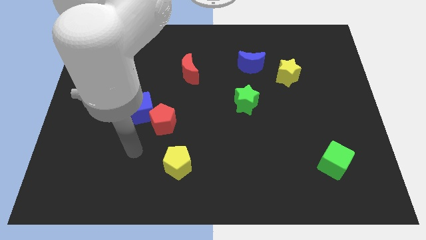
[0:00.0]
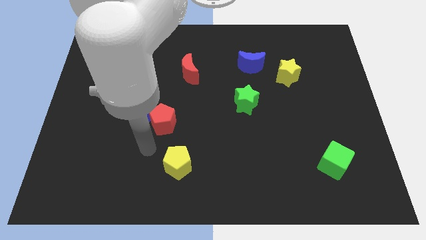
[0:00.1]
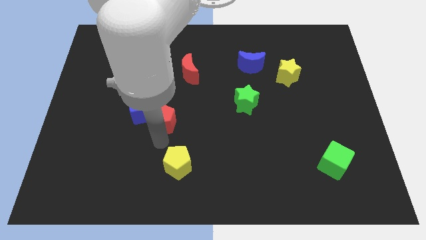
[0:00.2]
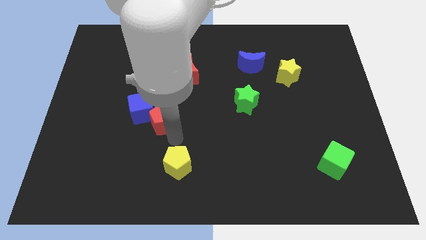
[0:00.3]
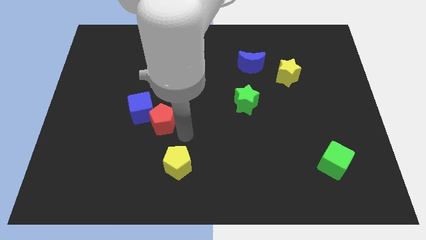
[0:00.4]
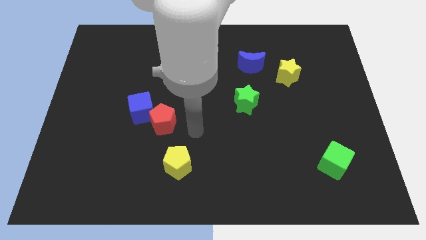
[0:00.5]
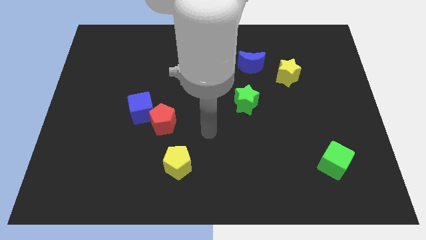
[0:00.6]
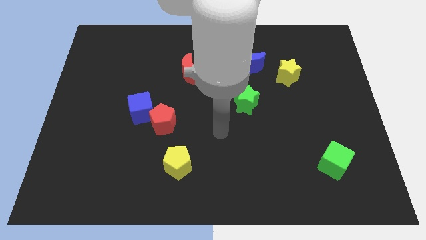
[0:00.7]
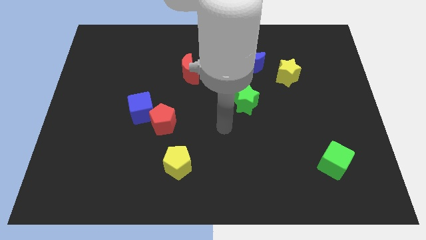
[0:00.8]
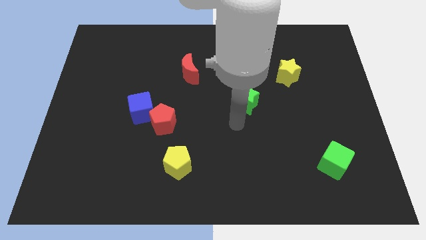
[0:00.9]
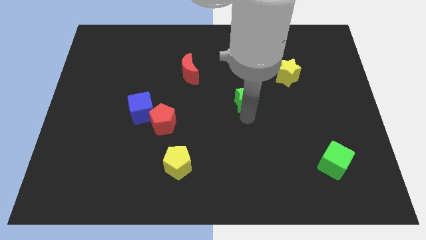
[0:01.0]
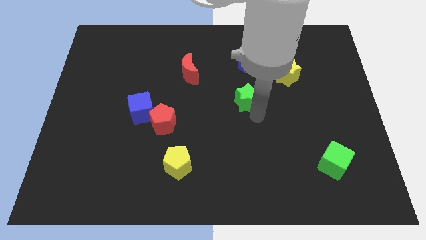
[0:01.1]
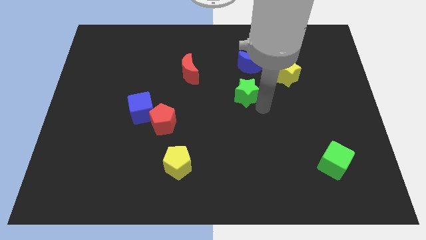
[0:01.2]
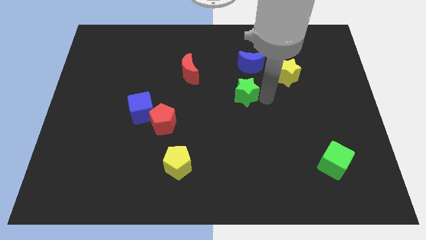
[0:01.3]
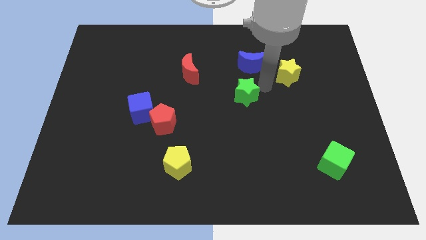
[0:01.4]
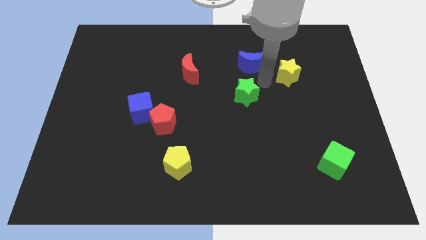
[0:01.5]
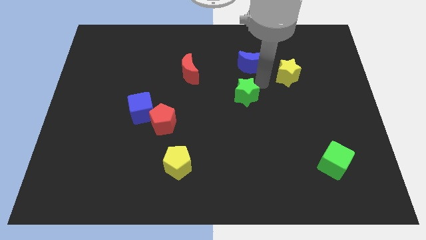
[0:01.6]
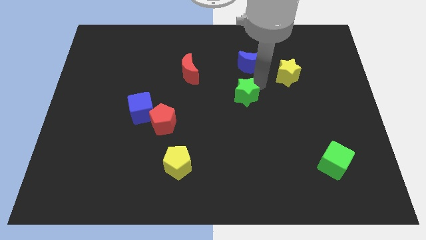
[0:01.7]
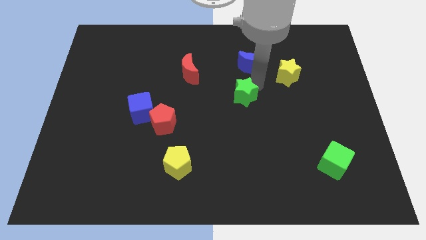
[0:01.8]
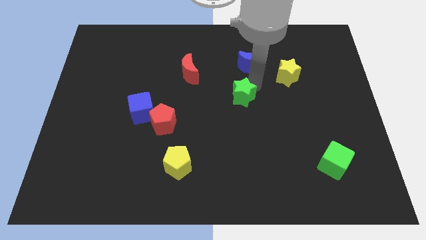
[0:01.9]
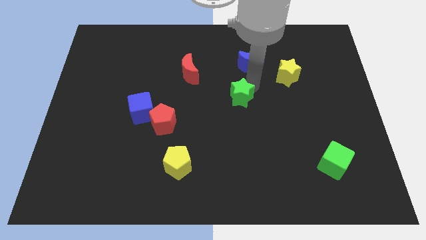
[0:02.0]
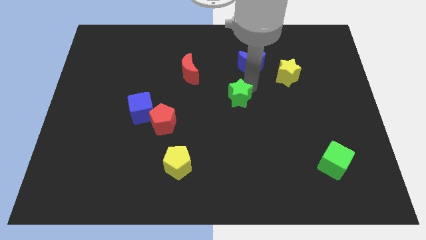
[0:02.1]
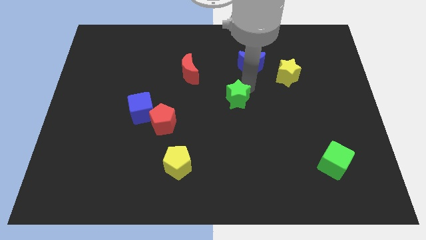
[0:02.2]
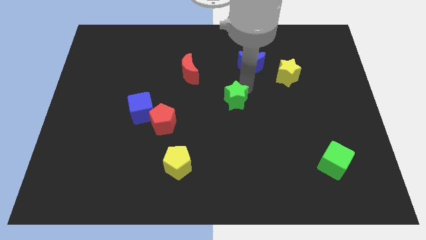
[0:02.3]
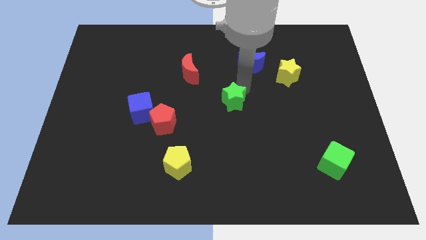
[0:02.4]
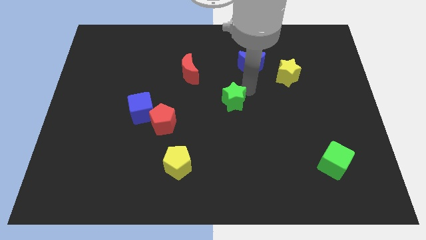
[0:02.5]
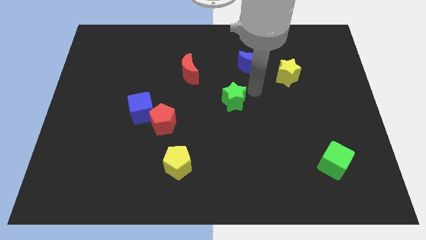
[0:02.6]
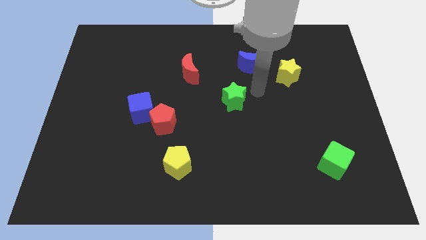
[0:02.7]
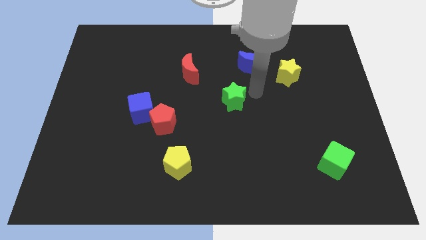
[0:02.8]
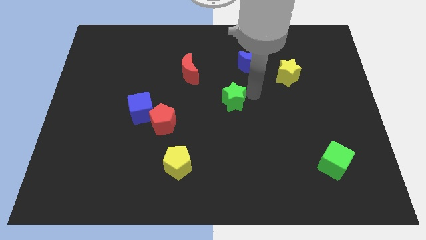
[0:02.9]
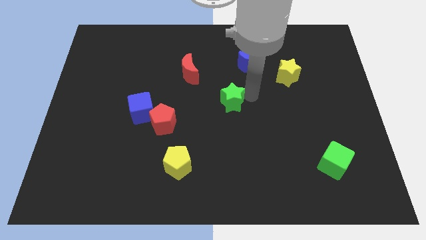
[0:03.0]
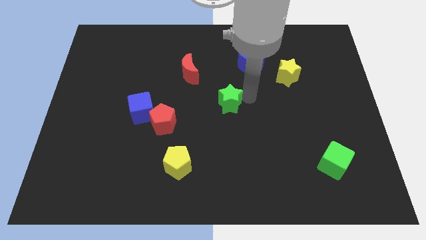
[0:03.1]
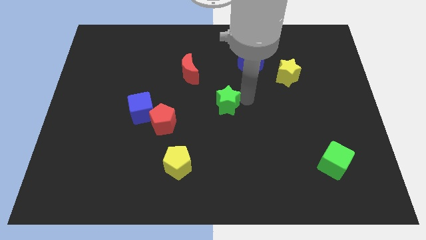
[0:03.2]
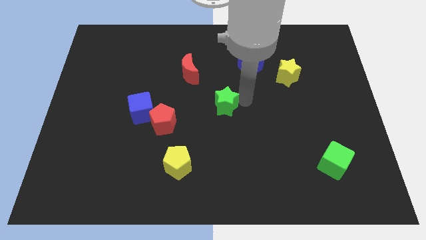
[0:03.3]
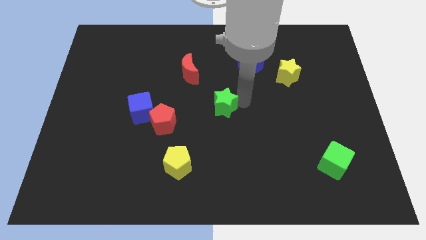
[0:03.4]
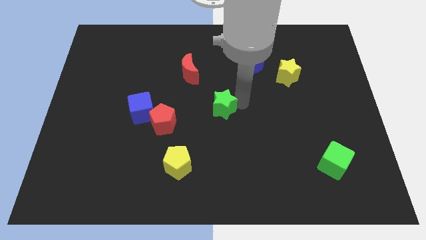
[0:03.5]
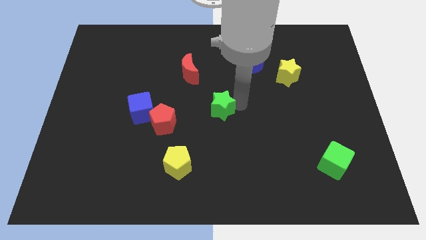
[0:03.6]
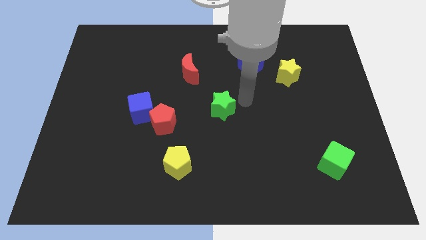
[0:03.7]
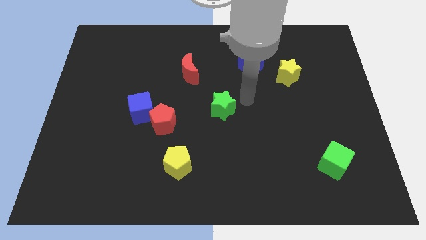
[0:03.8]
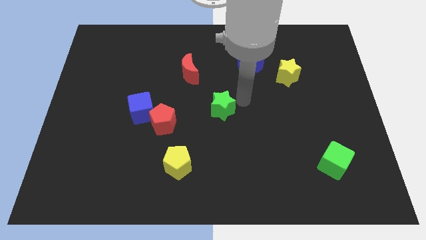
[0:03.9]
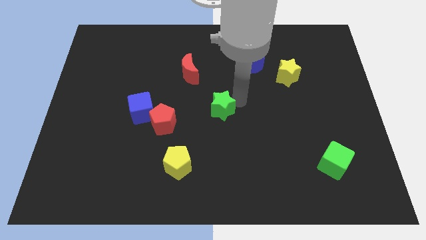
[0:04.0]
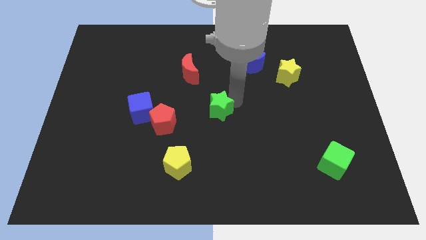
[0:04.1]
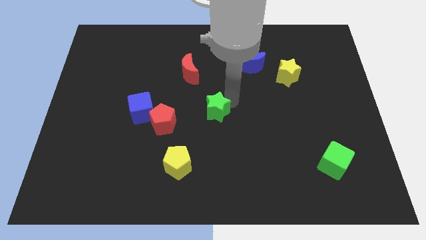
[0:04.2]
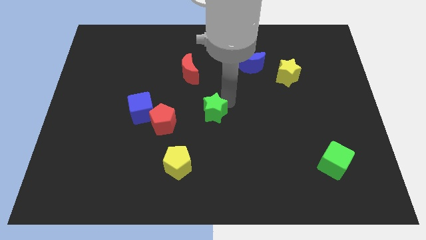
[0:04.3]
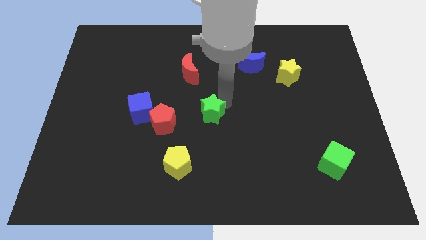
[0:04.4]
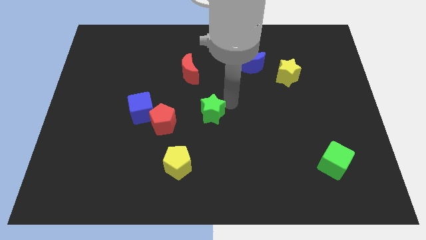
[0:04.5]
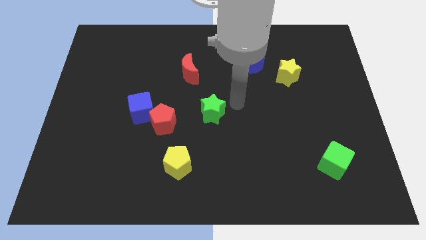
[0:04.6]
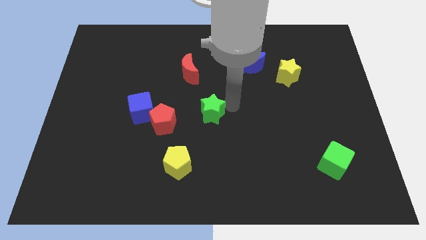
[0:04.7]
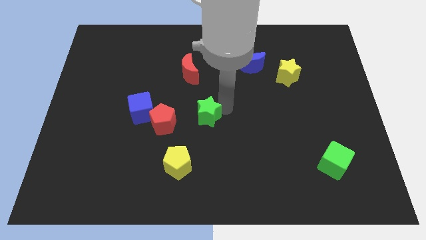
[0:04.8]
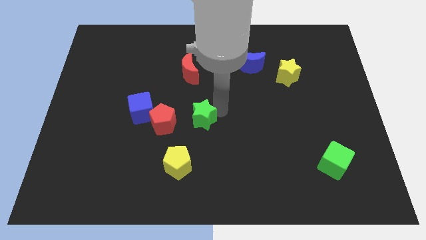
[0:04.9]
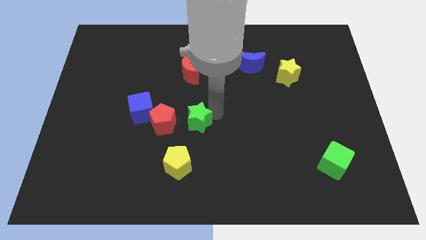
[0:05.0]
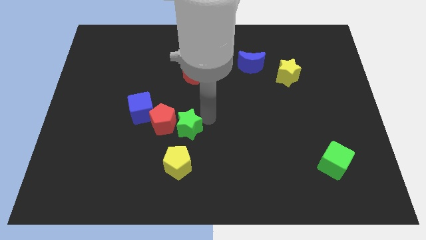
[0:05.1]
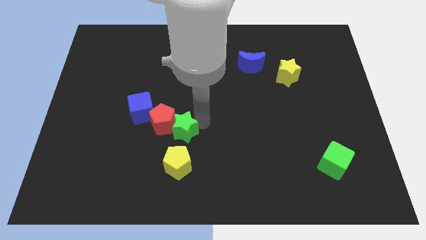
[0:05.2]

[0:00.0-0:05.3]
move the green star to the bottom right side of the blue cube

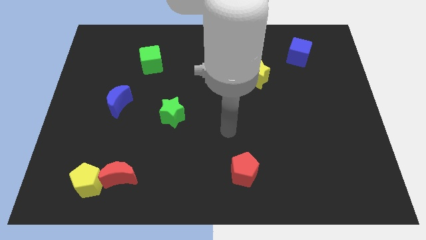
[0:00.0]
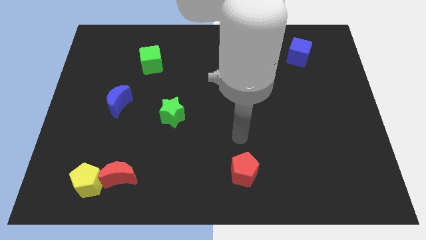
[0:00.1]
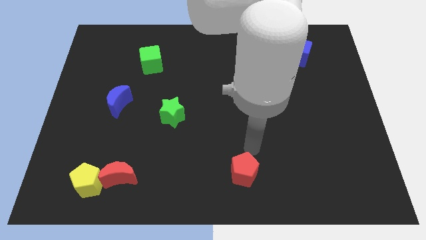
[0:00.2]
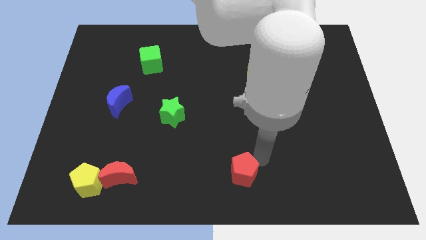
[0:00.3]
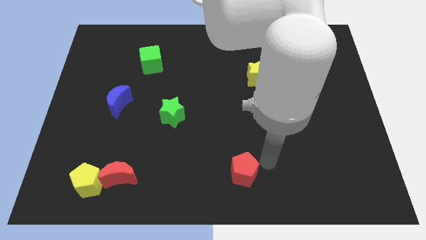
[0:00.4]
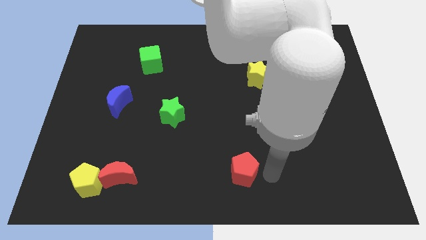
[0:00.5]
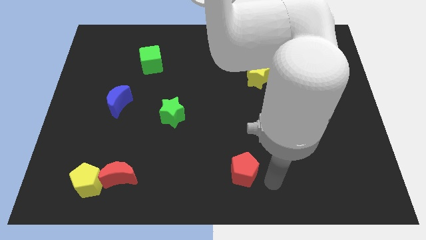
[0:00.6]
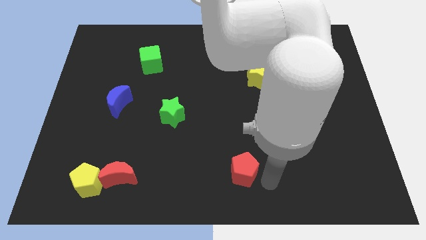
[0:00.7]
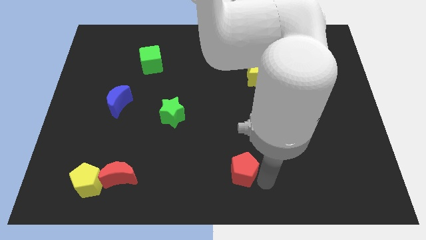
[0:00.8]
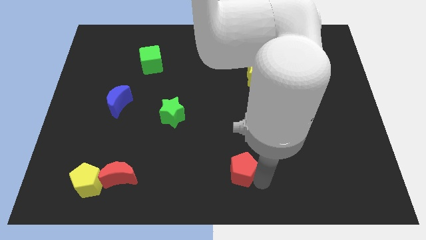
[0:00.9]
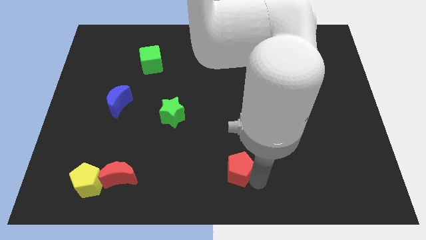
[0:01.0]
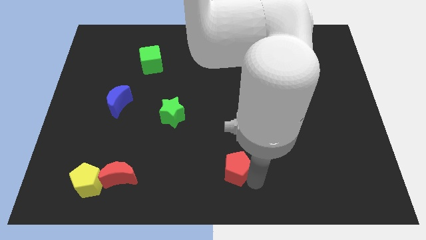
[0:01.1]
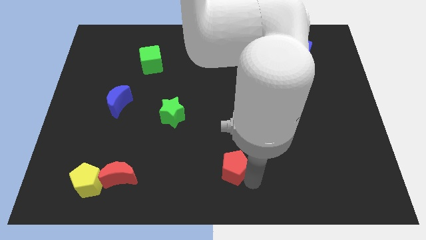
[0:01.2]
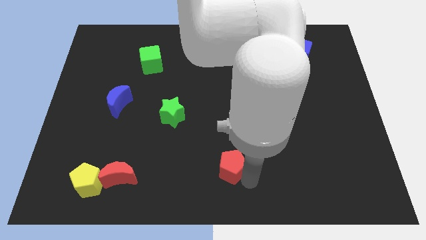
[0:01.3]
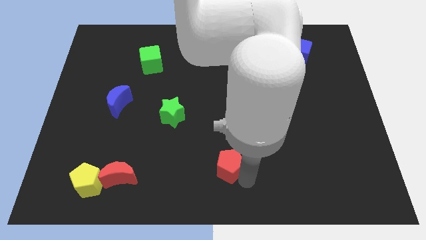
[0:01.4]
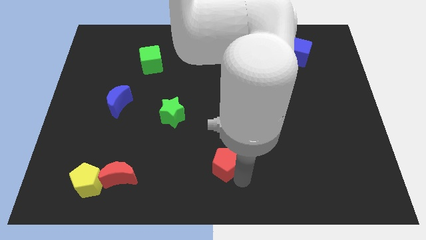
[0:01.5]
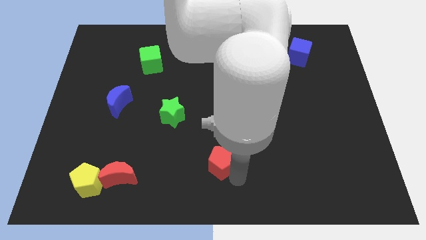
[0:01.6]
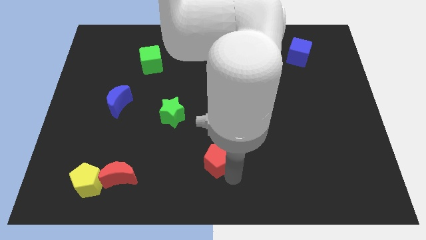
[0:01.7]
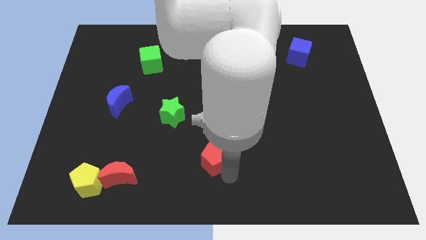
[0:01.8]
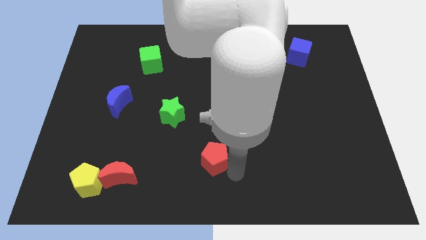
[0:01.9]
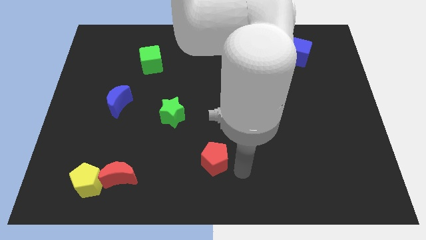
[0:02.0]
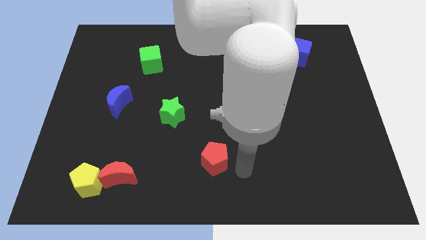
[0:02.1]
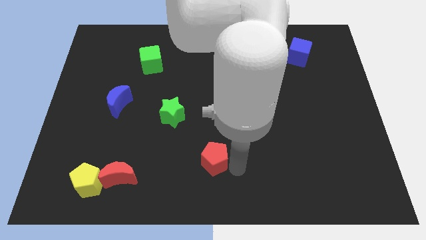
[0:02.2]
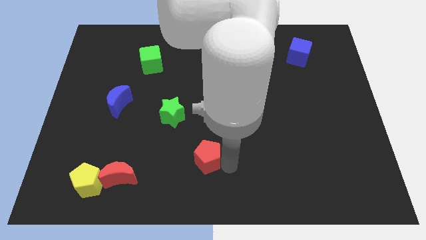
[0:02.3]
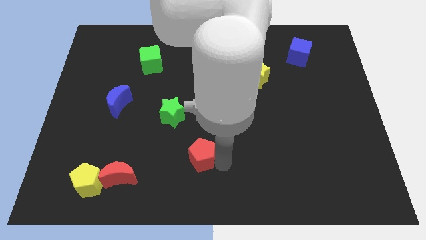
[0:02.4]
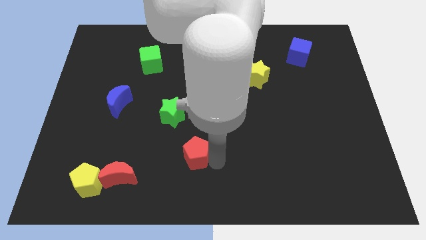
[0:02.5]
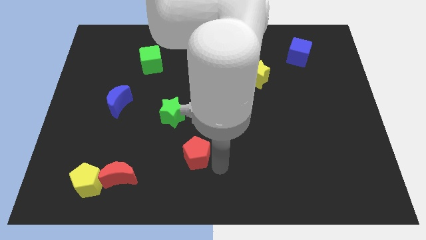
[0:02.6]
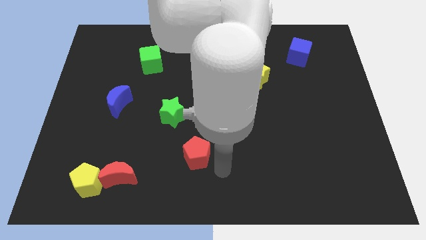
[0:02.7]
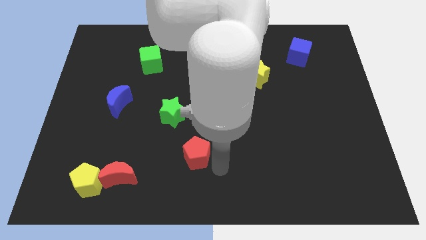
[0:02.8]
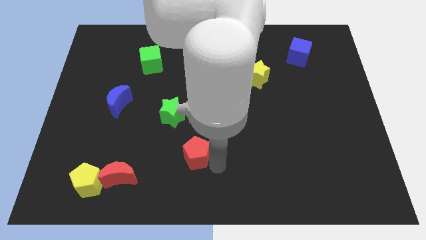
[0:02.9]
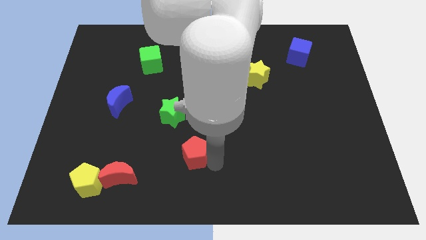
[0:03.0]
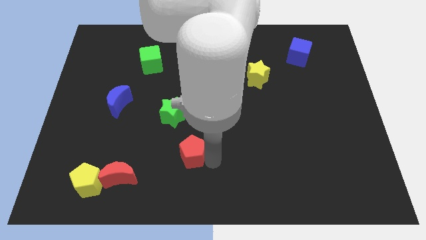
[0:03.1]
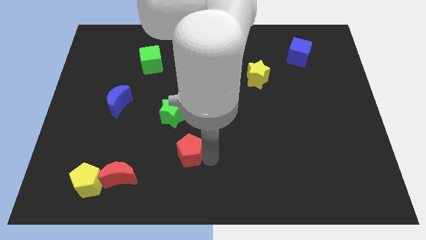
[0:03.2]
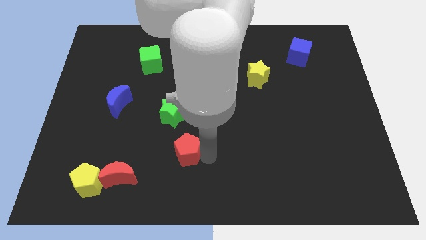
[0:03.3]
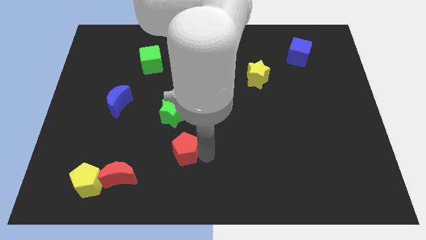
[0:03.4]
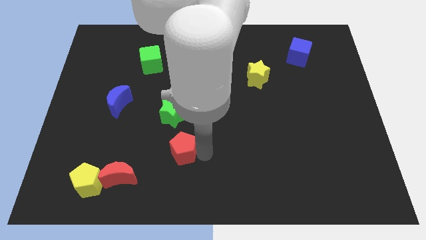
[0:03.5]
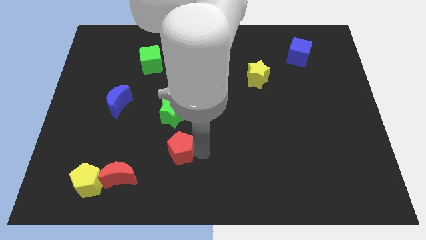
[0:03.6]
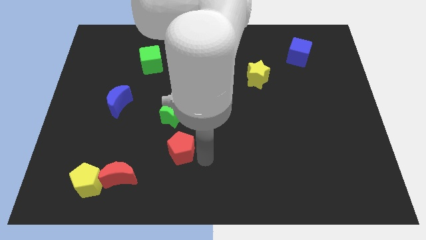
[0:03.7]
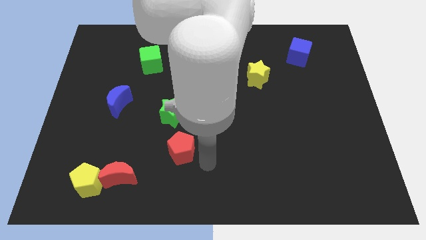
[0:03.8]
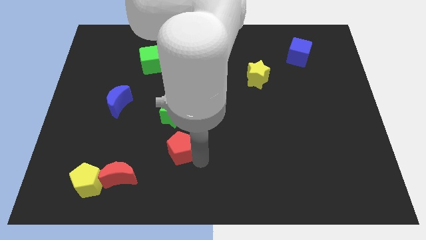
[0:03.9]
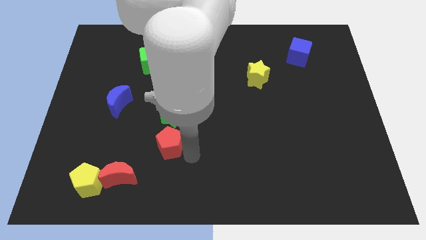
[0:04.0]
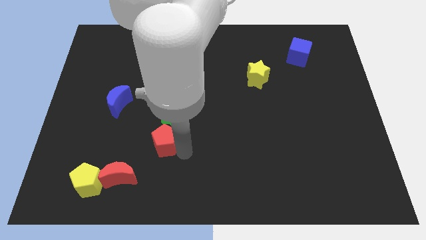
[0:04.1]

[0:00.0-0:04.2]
put the red pentagon to the bottom left side of the green star
